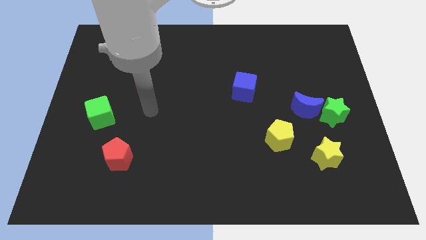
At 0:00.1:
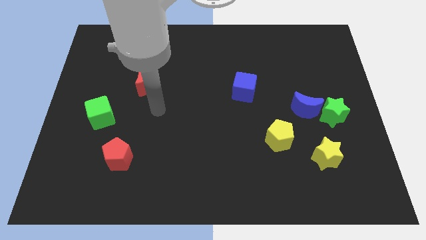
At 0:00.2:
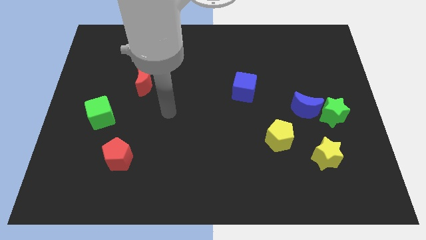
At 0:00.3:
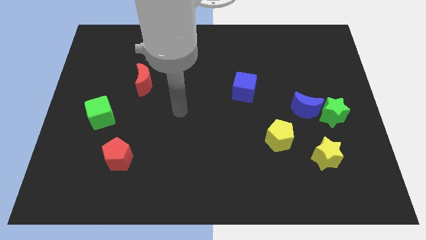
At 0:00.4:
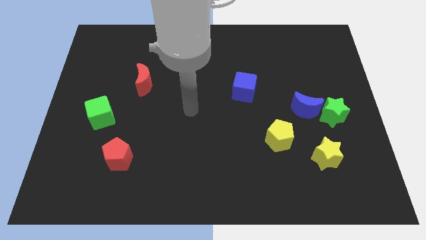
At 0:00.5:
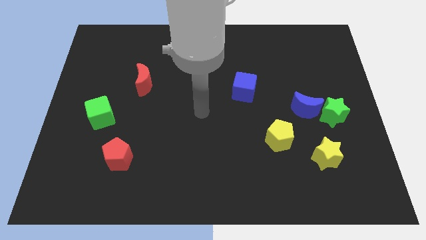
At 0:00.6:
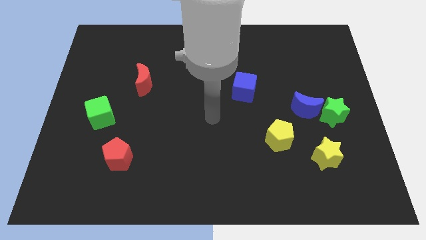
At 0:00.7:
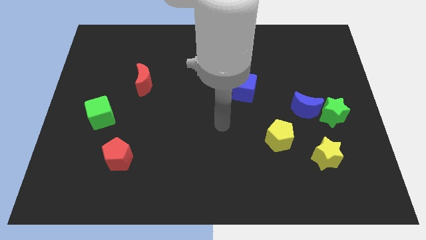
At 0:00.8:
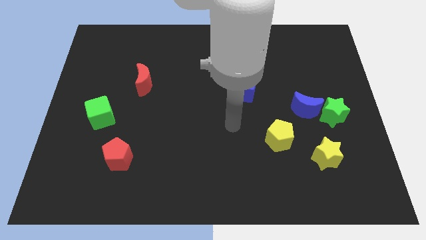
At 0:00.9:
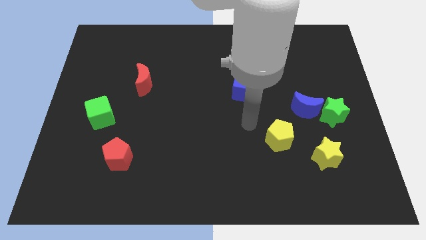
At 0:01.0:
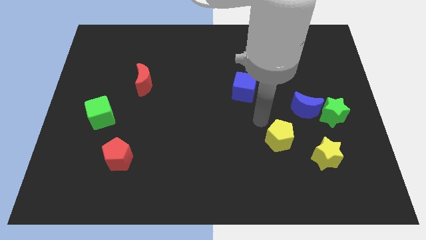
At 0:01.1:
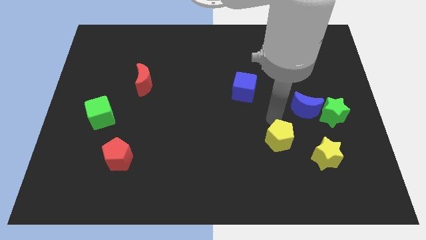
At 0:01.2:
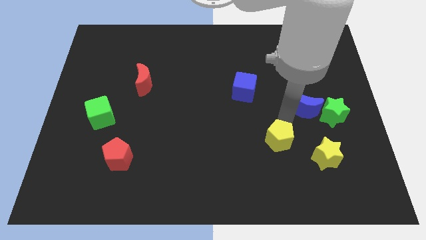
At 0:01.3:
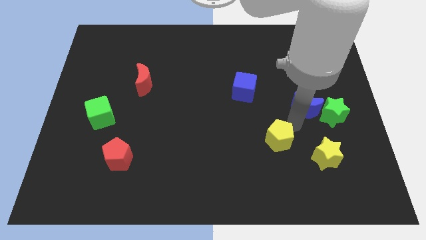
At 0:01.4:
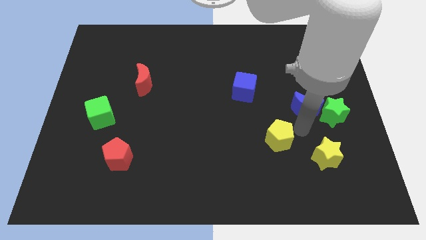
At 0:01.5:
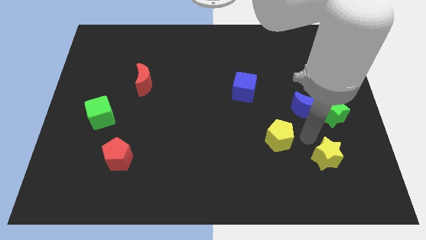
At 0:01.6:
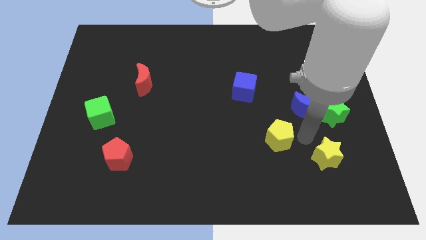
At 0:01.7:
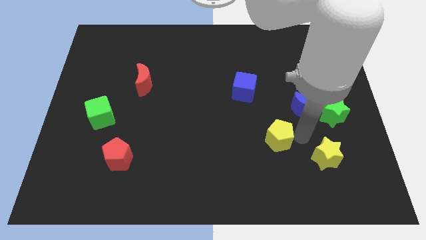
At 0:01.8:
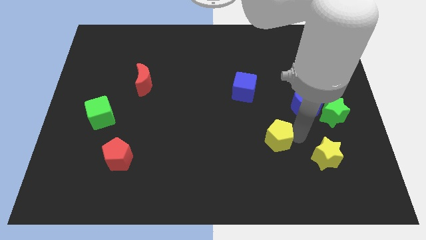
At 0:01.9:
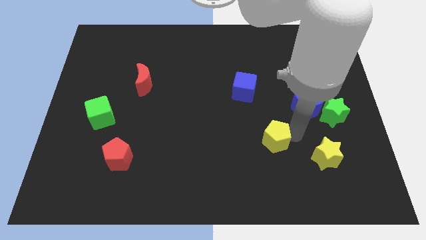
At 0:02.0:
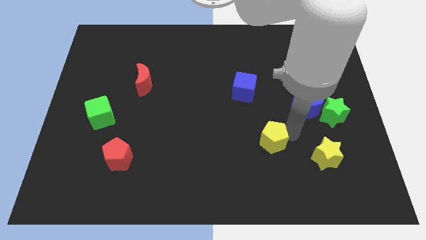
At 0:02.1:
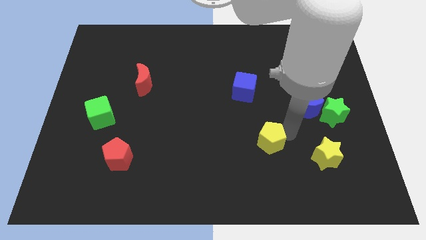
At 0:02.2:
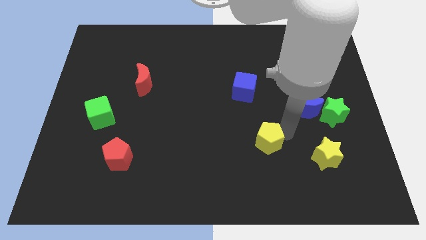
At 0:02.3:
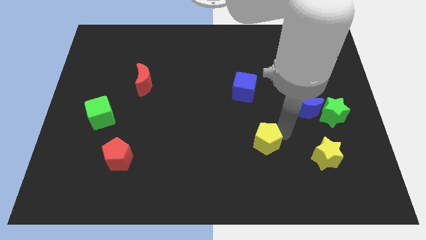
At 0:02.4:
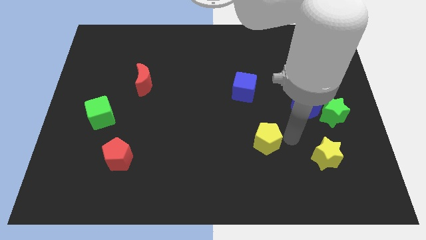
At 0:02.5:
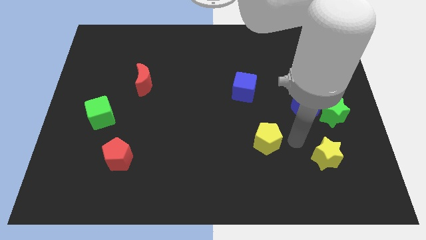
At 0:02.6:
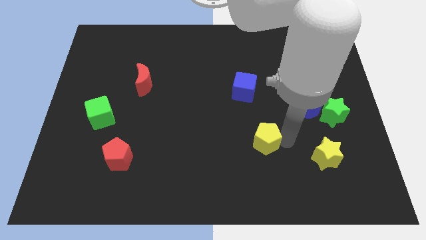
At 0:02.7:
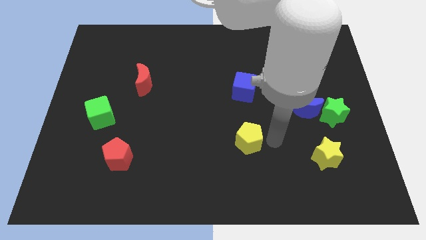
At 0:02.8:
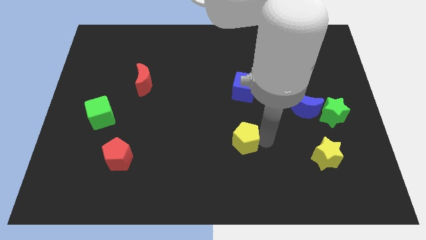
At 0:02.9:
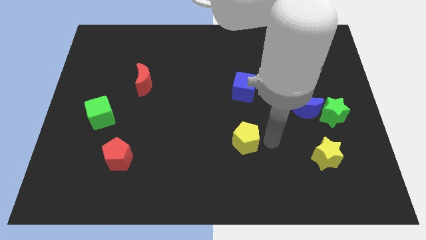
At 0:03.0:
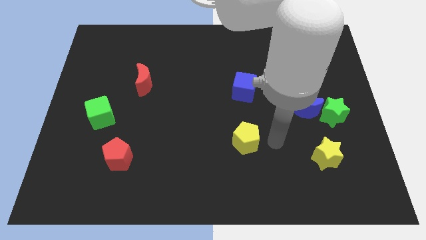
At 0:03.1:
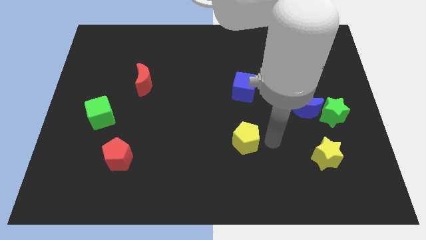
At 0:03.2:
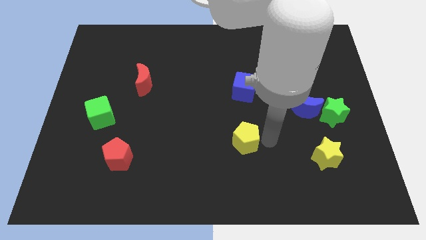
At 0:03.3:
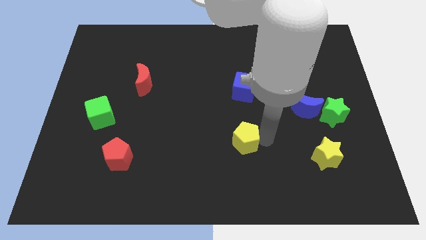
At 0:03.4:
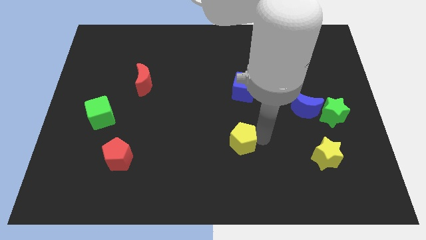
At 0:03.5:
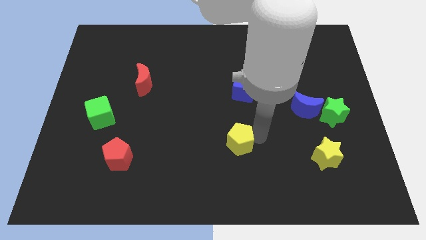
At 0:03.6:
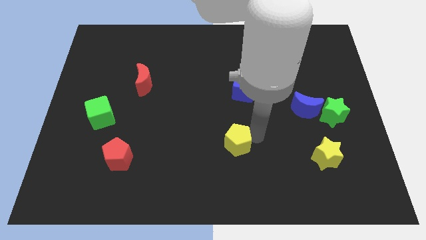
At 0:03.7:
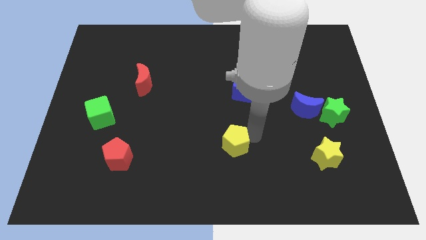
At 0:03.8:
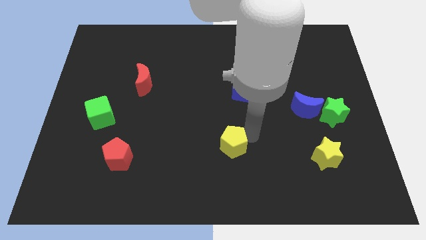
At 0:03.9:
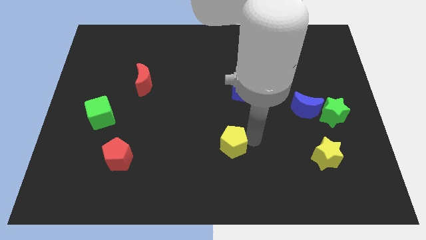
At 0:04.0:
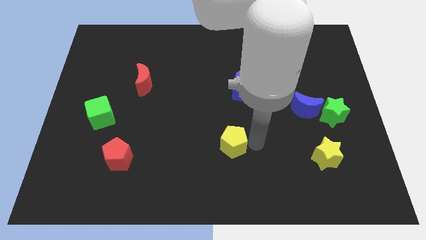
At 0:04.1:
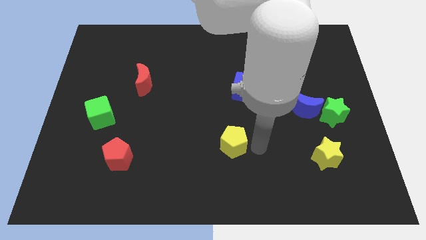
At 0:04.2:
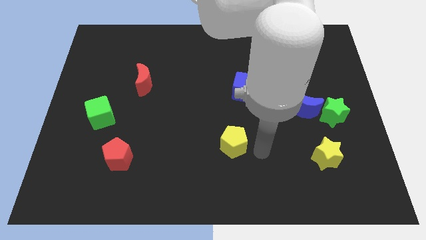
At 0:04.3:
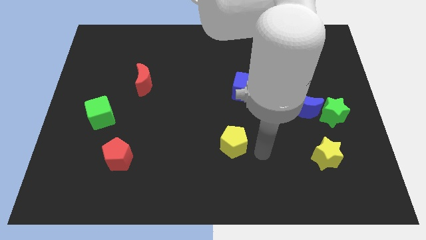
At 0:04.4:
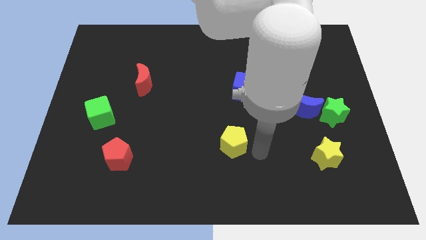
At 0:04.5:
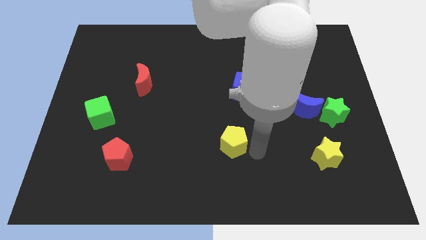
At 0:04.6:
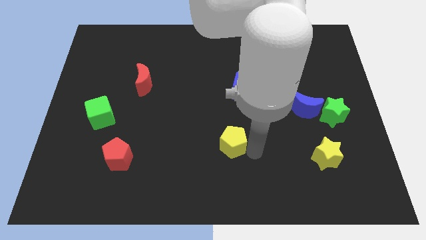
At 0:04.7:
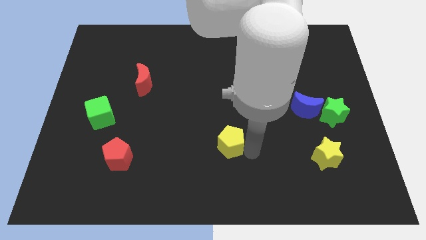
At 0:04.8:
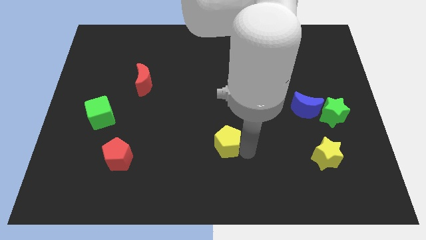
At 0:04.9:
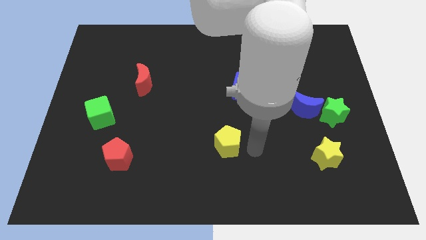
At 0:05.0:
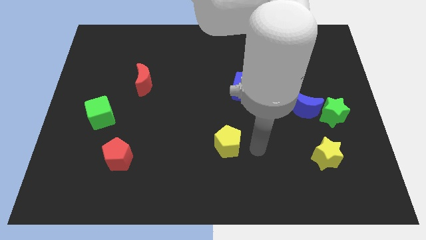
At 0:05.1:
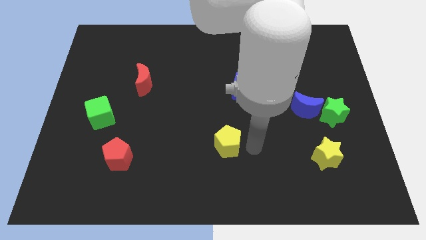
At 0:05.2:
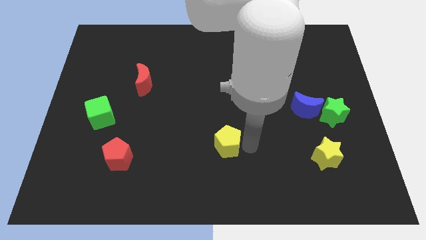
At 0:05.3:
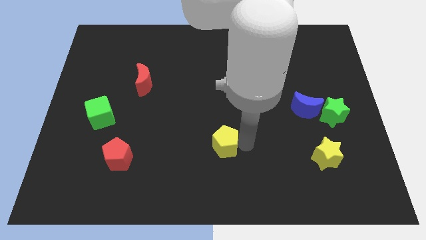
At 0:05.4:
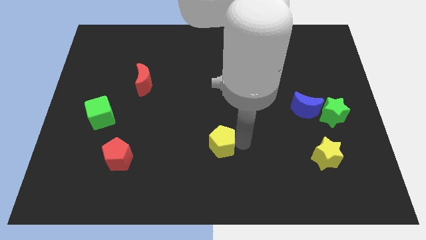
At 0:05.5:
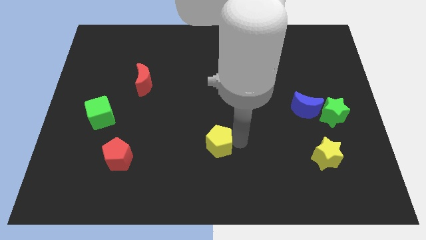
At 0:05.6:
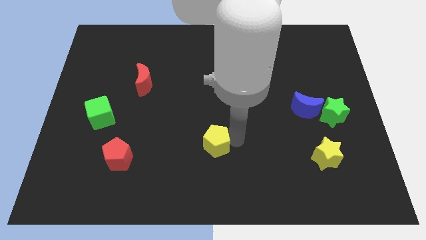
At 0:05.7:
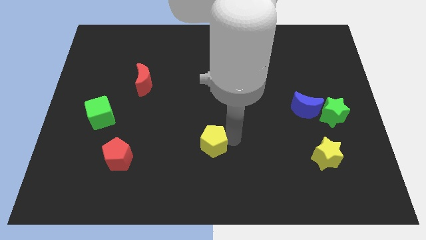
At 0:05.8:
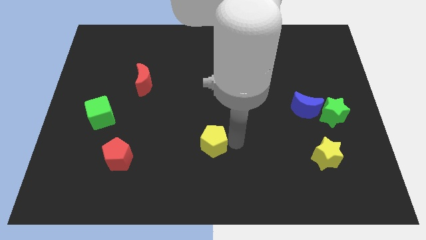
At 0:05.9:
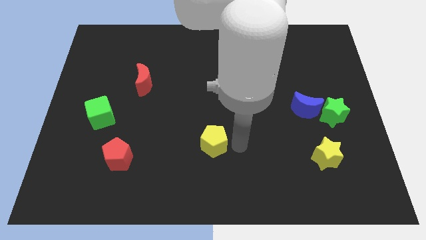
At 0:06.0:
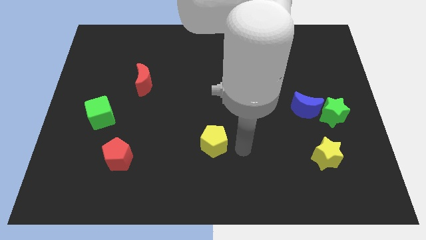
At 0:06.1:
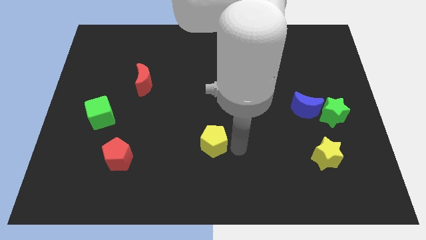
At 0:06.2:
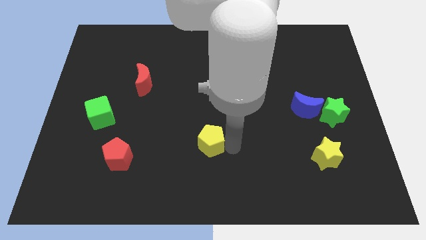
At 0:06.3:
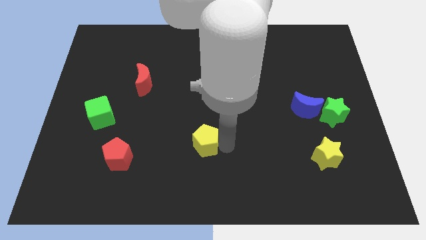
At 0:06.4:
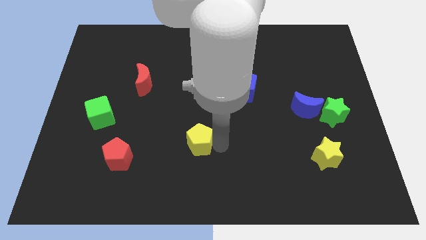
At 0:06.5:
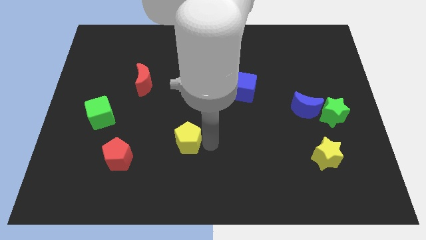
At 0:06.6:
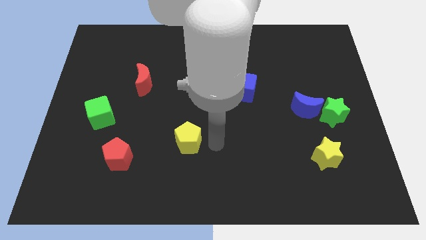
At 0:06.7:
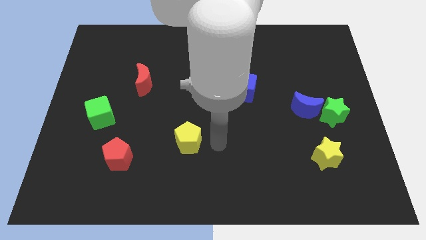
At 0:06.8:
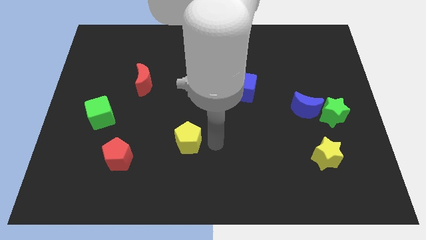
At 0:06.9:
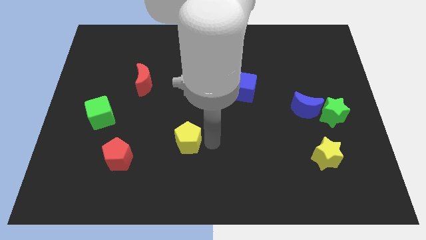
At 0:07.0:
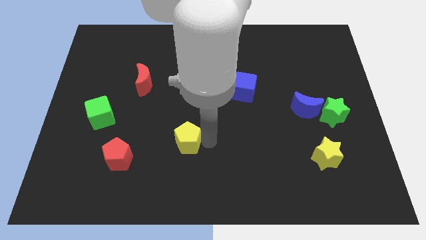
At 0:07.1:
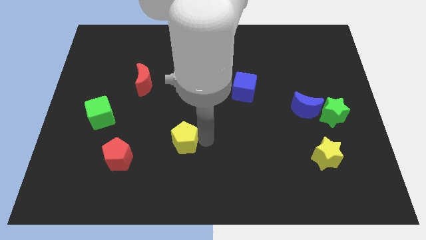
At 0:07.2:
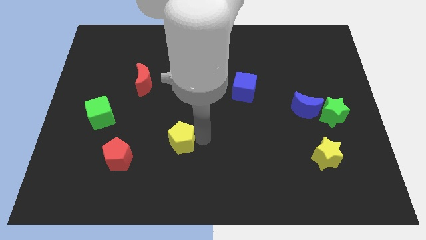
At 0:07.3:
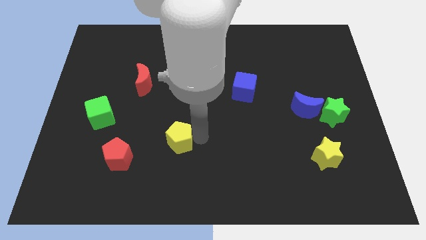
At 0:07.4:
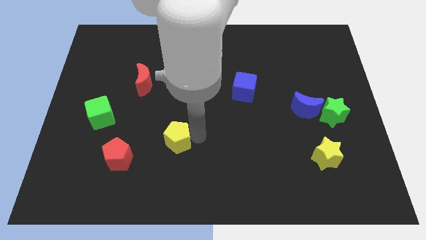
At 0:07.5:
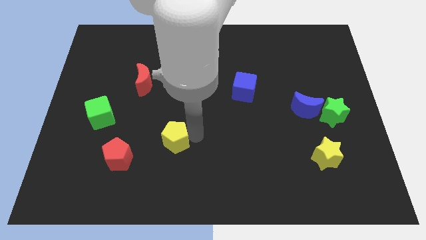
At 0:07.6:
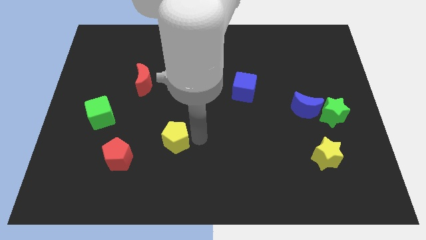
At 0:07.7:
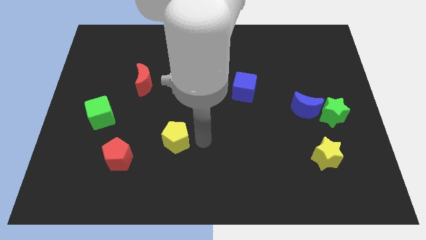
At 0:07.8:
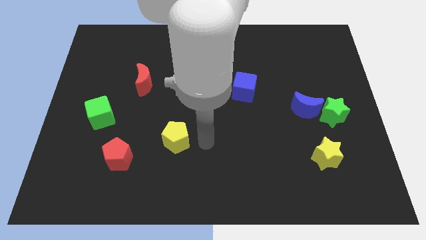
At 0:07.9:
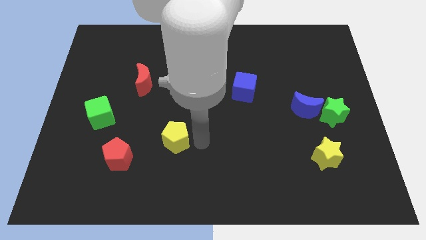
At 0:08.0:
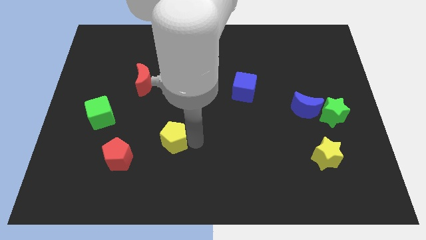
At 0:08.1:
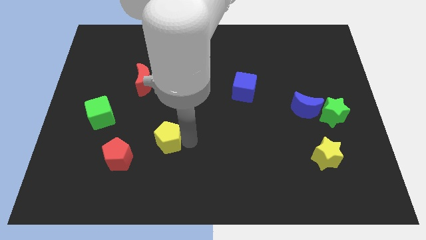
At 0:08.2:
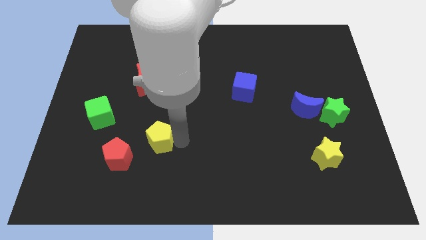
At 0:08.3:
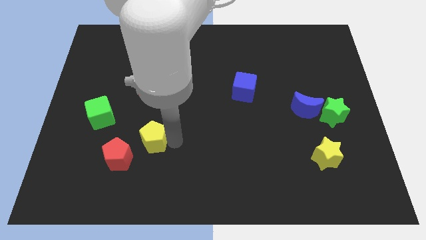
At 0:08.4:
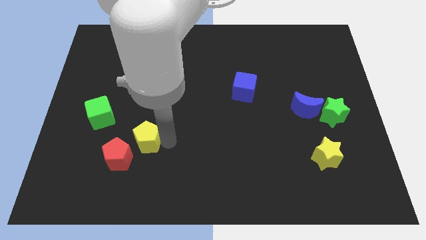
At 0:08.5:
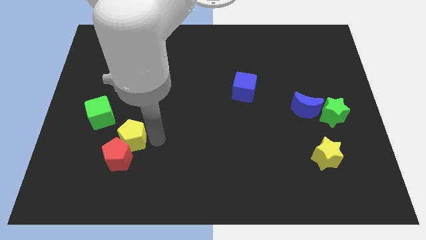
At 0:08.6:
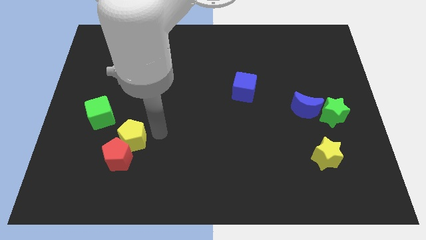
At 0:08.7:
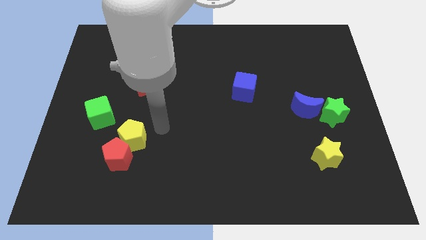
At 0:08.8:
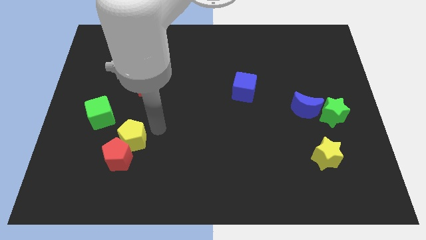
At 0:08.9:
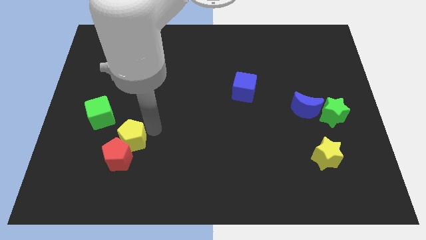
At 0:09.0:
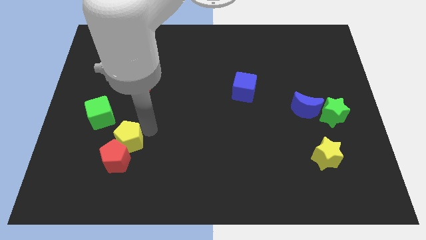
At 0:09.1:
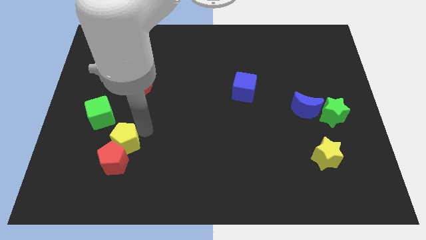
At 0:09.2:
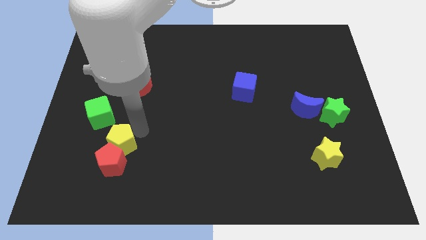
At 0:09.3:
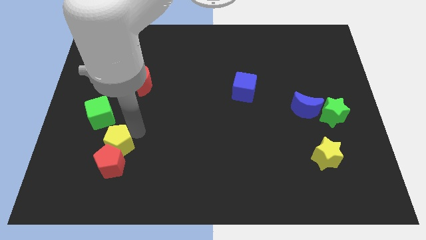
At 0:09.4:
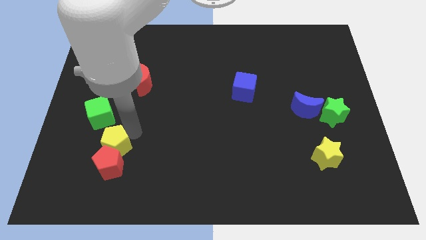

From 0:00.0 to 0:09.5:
push the yellow pentagon to the bottom side of the green cube
